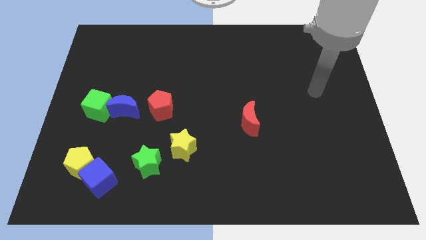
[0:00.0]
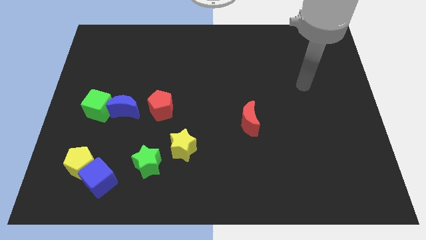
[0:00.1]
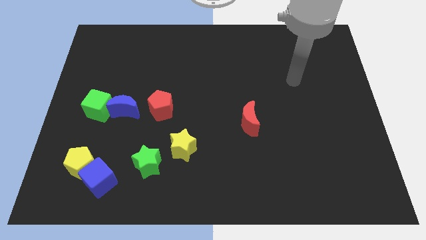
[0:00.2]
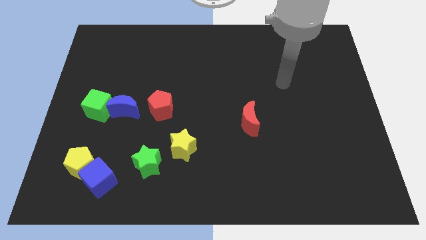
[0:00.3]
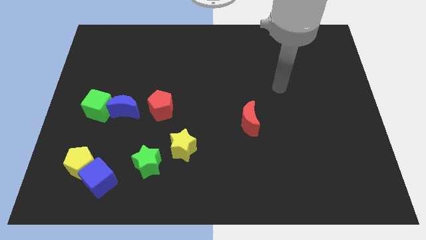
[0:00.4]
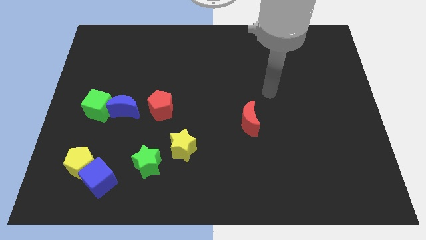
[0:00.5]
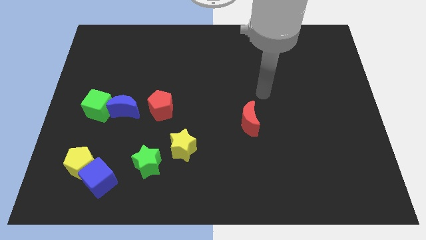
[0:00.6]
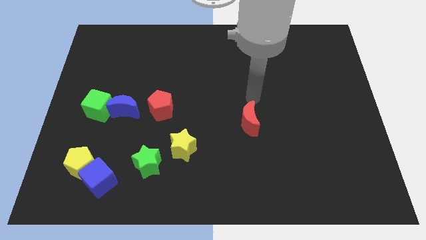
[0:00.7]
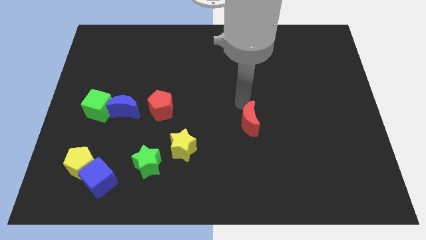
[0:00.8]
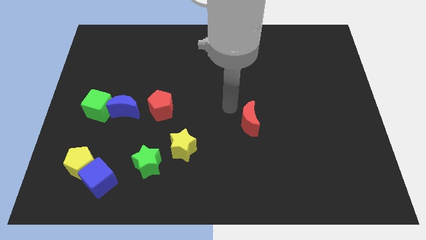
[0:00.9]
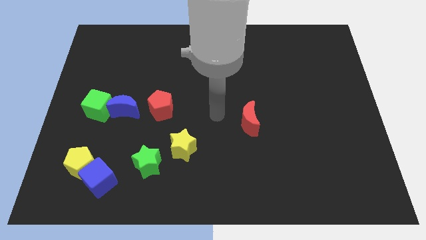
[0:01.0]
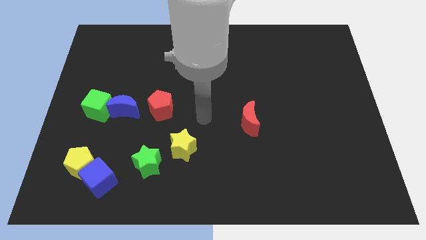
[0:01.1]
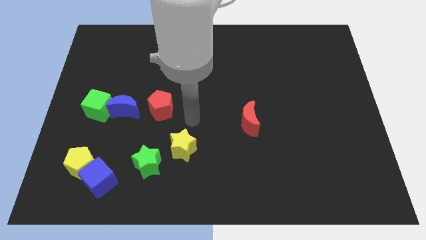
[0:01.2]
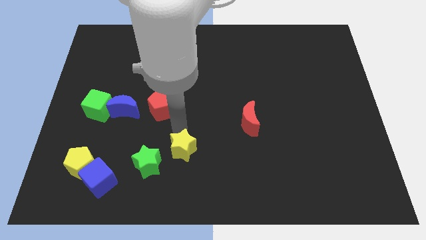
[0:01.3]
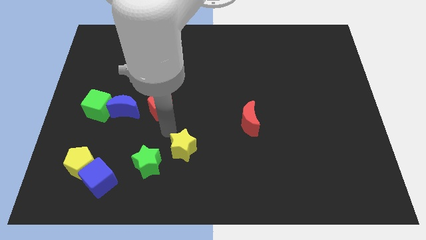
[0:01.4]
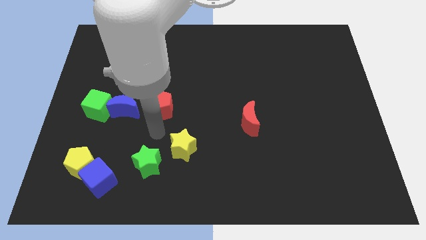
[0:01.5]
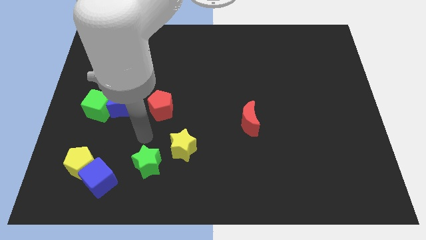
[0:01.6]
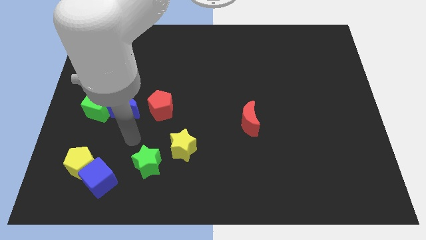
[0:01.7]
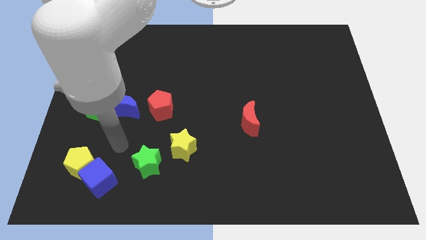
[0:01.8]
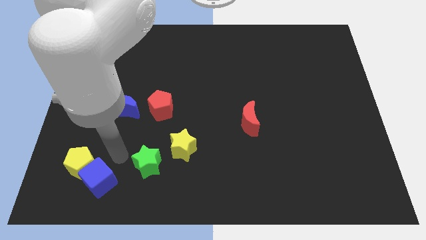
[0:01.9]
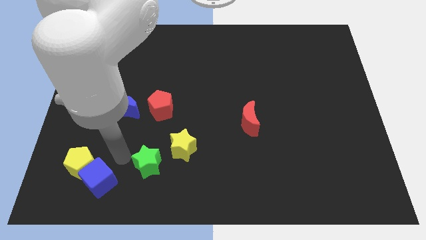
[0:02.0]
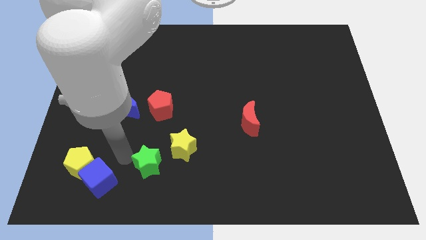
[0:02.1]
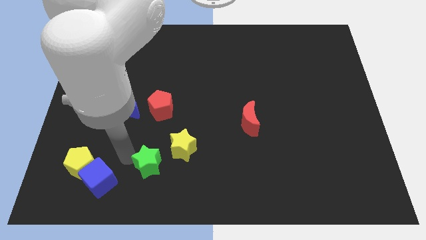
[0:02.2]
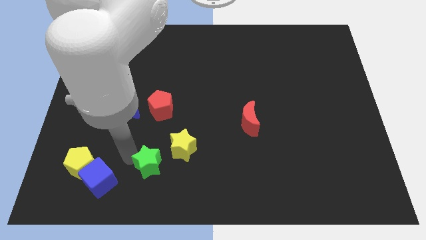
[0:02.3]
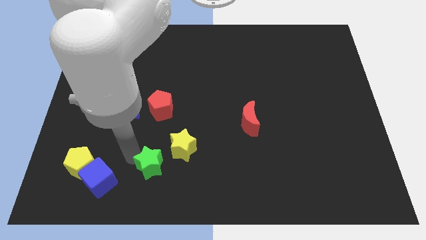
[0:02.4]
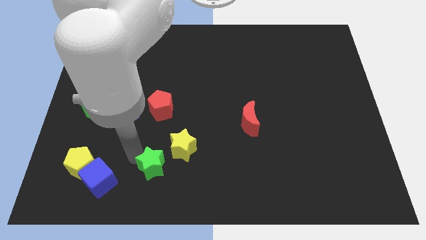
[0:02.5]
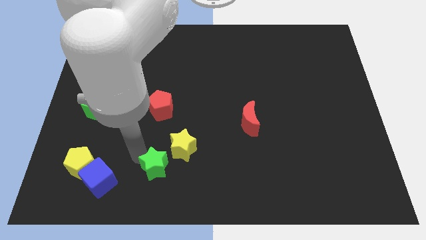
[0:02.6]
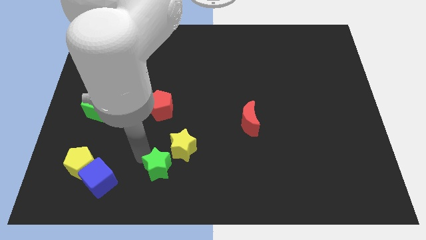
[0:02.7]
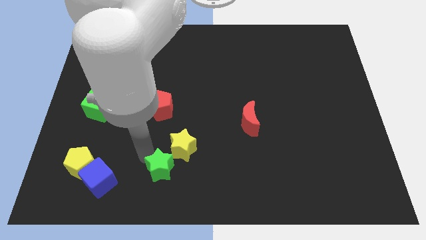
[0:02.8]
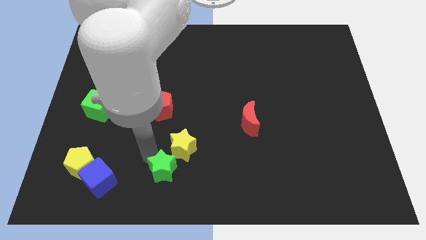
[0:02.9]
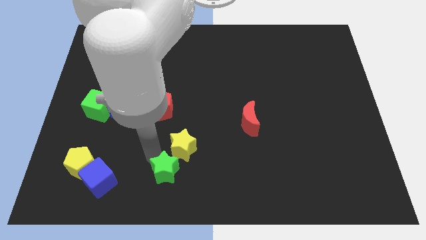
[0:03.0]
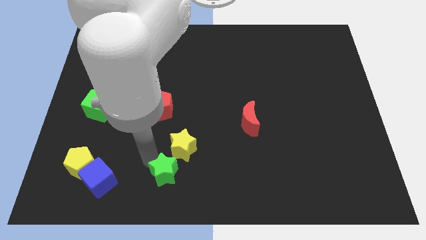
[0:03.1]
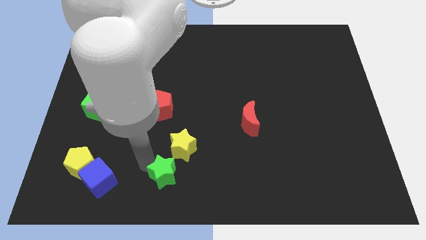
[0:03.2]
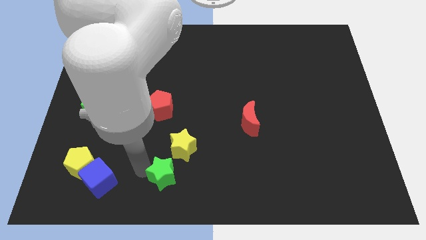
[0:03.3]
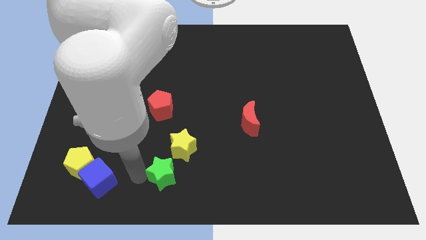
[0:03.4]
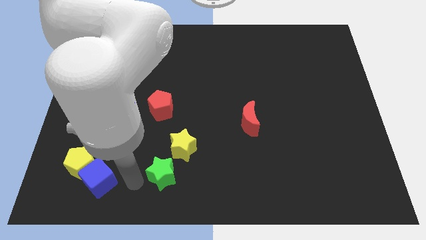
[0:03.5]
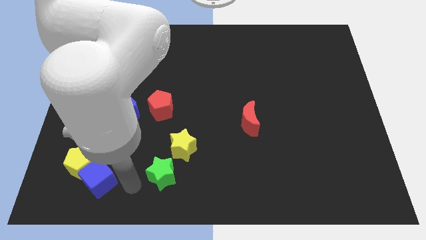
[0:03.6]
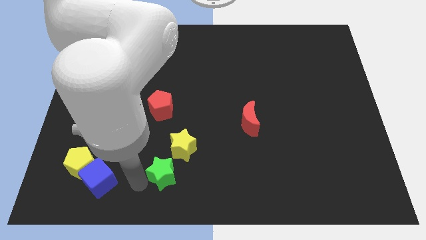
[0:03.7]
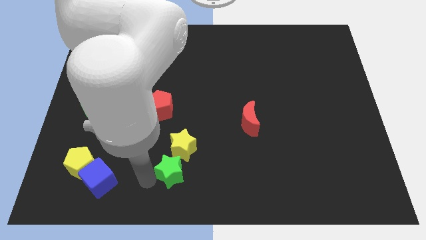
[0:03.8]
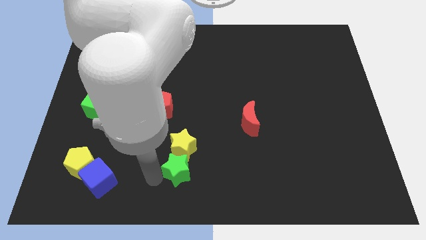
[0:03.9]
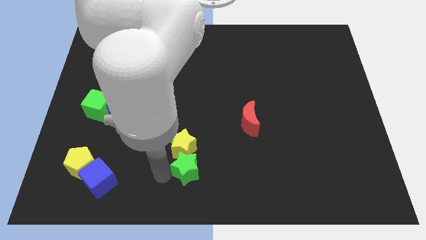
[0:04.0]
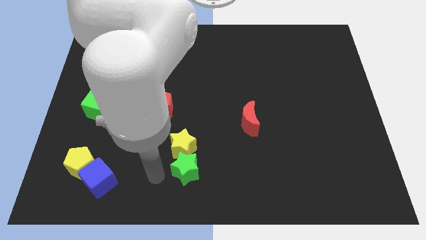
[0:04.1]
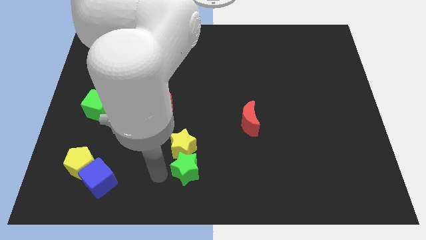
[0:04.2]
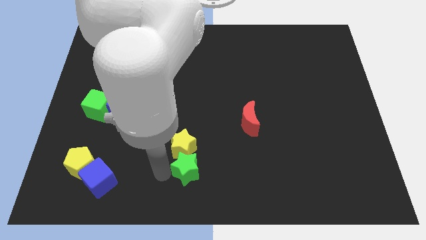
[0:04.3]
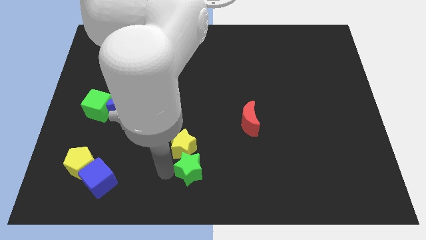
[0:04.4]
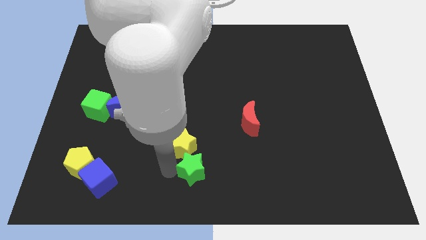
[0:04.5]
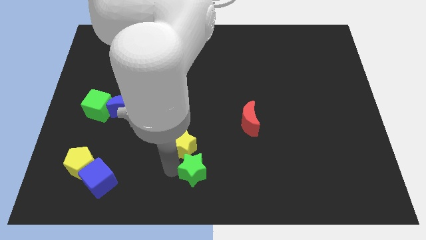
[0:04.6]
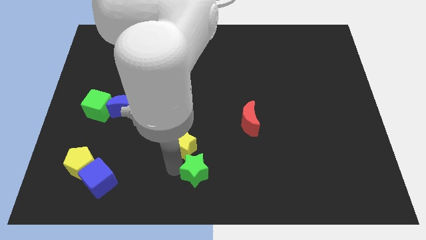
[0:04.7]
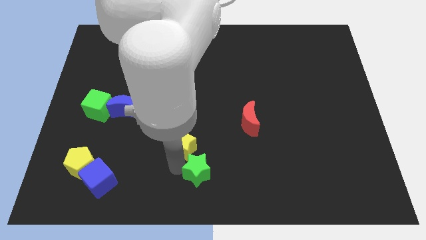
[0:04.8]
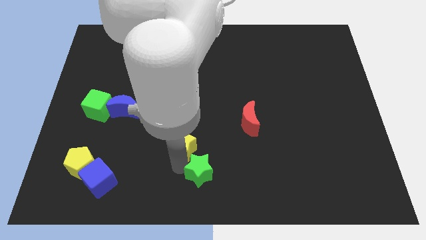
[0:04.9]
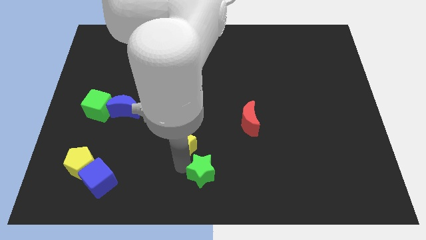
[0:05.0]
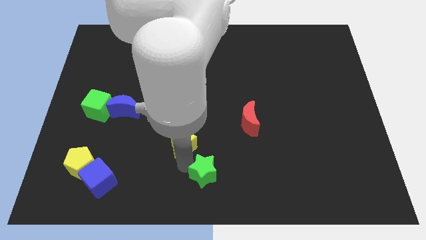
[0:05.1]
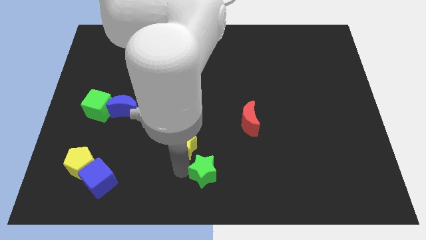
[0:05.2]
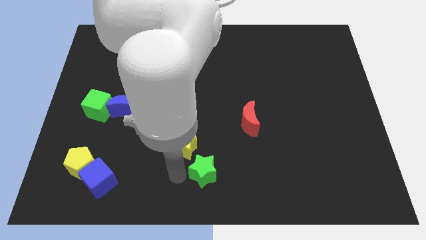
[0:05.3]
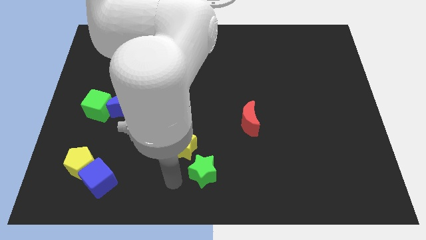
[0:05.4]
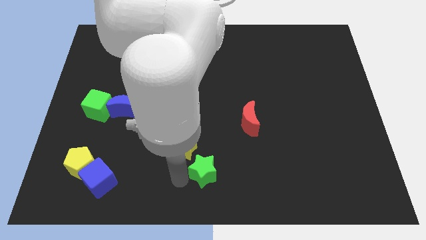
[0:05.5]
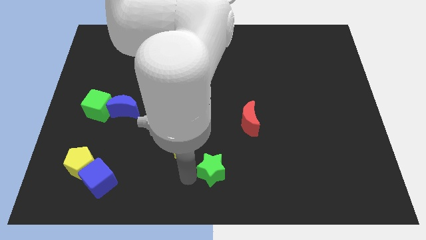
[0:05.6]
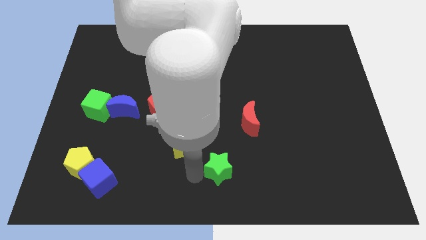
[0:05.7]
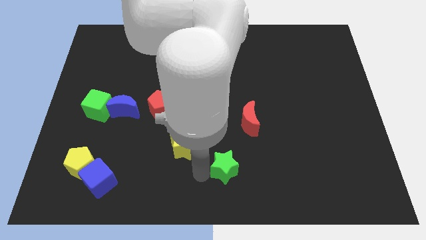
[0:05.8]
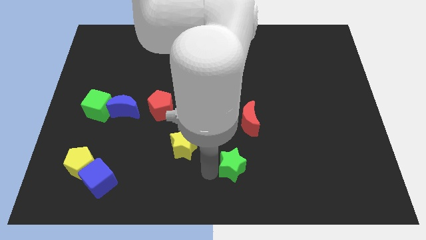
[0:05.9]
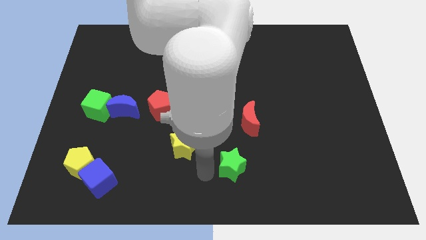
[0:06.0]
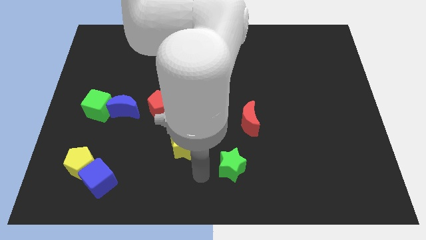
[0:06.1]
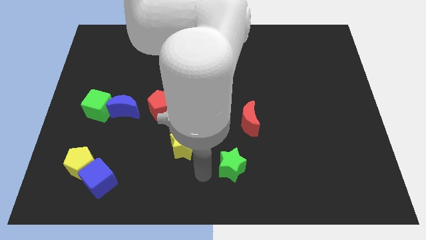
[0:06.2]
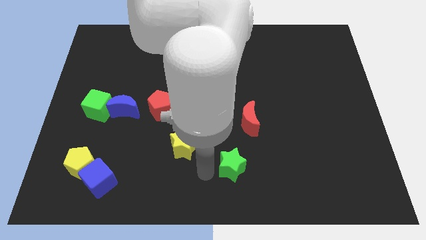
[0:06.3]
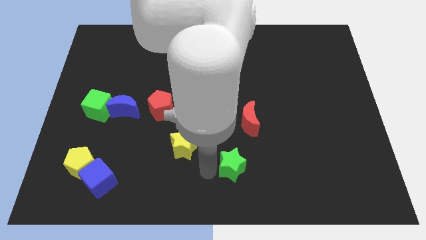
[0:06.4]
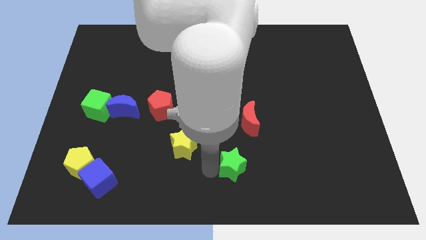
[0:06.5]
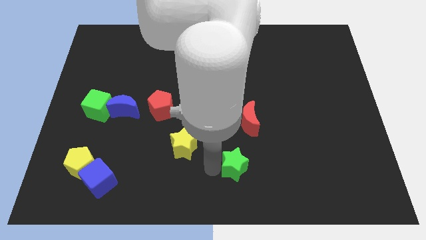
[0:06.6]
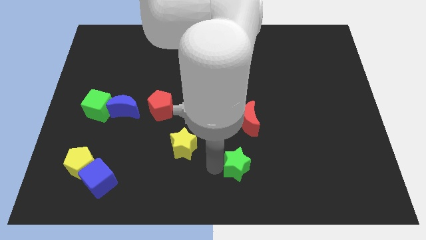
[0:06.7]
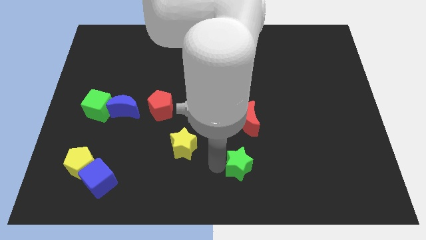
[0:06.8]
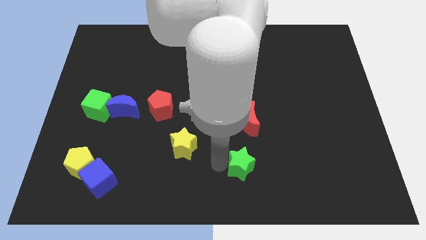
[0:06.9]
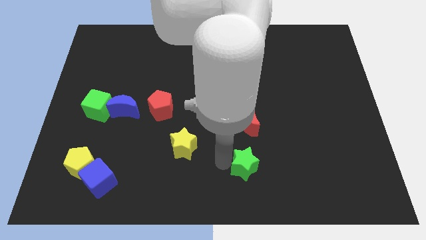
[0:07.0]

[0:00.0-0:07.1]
slide the green star right

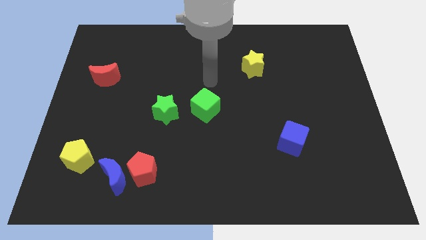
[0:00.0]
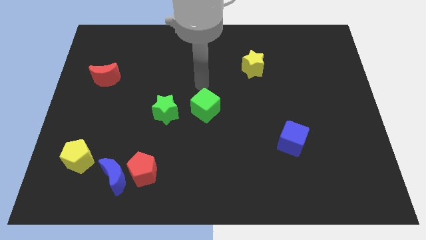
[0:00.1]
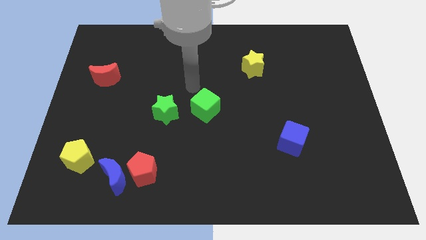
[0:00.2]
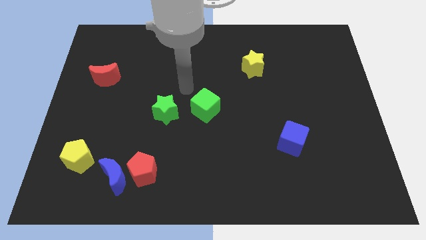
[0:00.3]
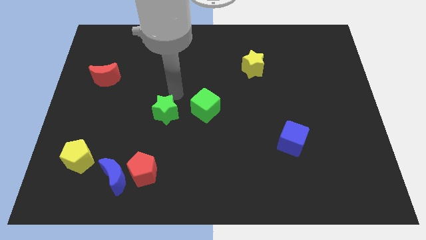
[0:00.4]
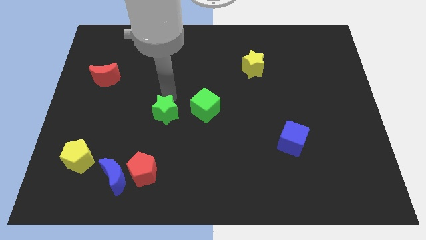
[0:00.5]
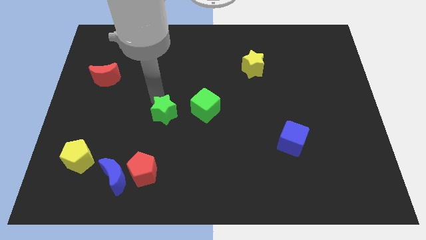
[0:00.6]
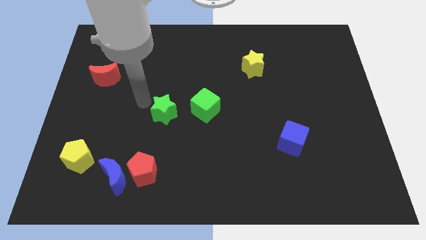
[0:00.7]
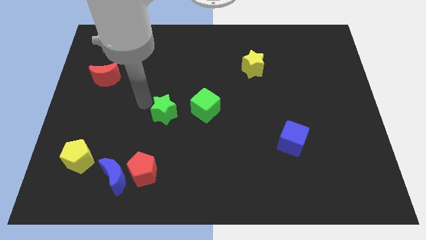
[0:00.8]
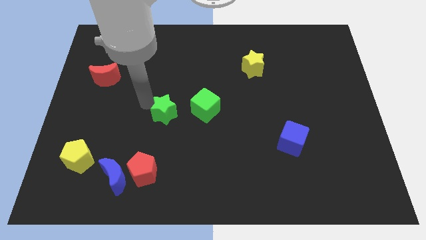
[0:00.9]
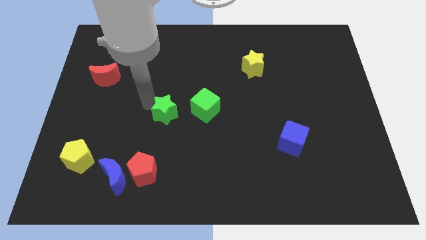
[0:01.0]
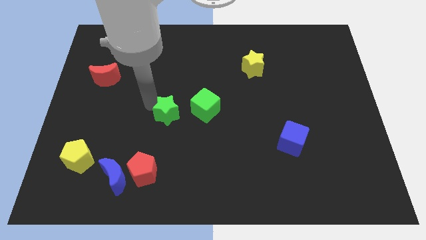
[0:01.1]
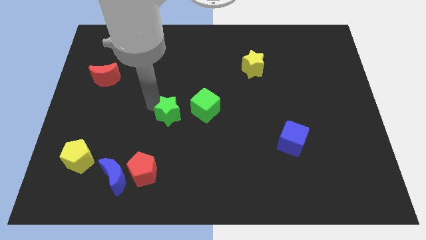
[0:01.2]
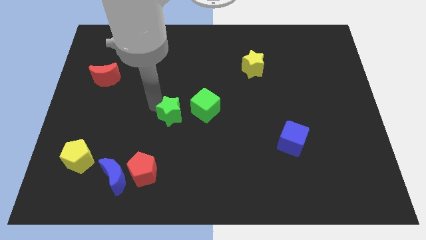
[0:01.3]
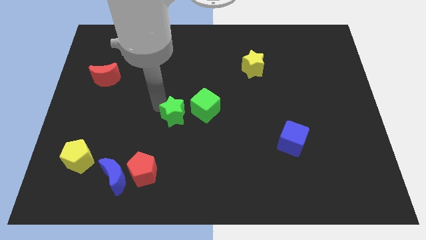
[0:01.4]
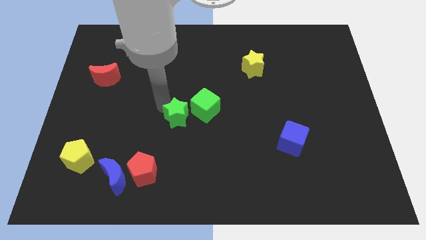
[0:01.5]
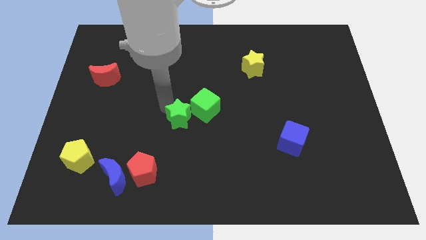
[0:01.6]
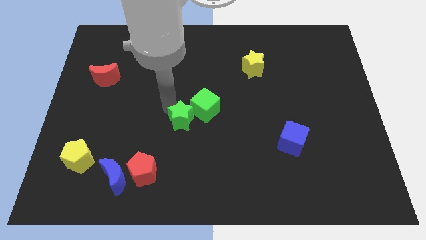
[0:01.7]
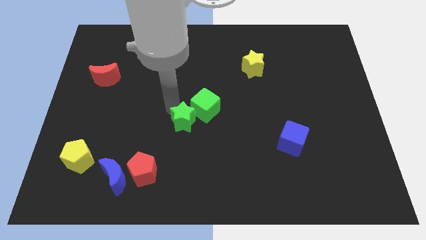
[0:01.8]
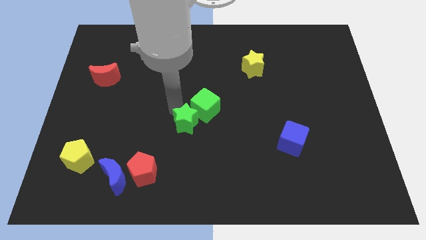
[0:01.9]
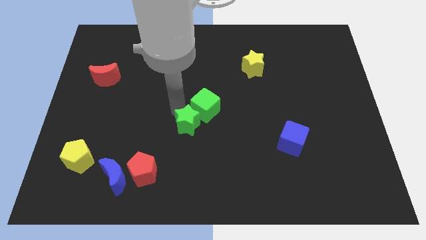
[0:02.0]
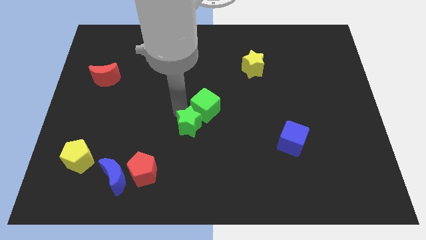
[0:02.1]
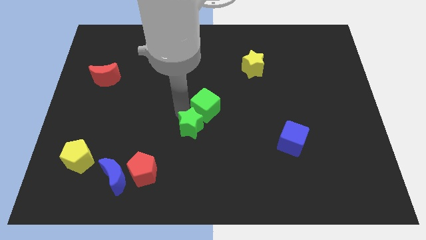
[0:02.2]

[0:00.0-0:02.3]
slightly push the green star diagonally downwards and to the right
